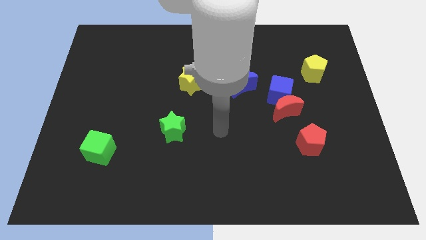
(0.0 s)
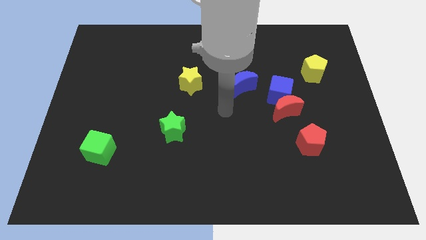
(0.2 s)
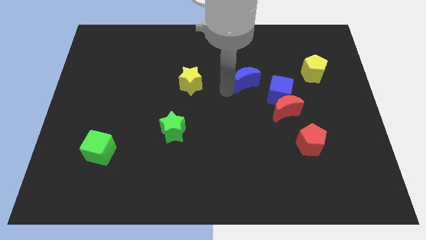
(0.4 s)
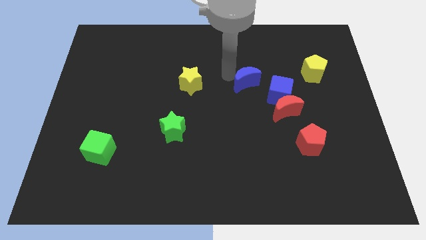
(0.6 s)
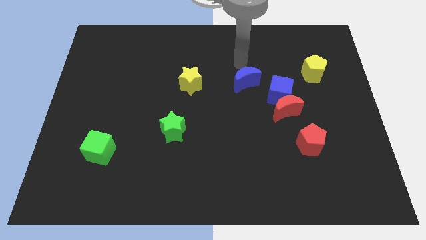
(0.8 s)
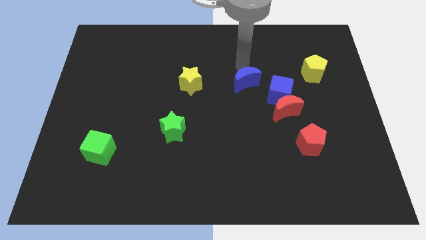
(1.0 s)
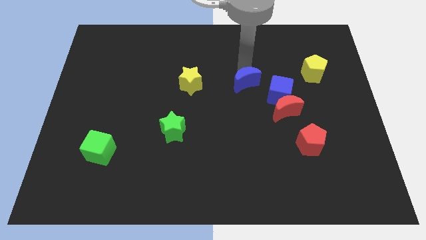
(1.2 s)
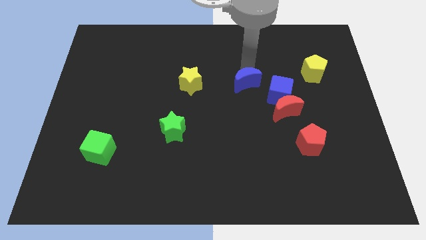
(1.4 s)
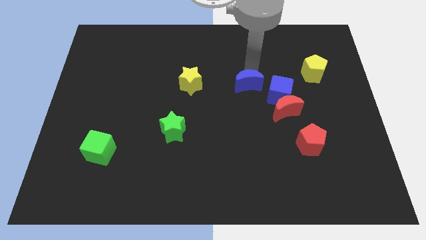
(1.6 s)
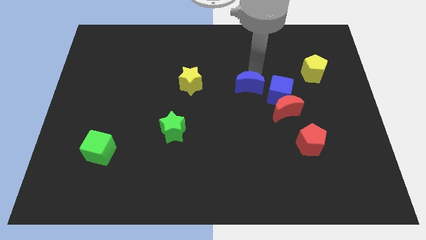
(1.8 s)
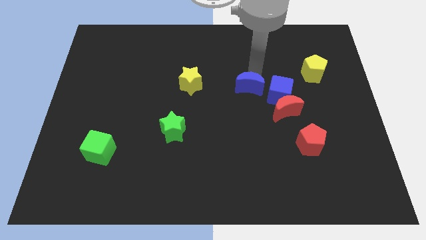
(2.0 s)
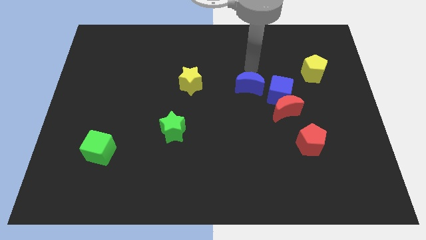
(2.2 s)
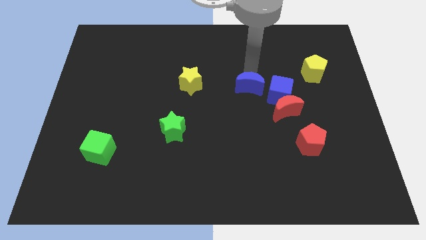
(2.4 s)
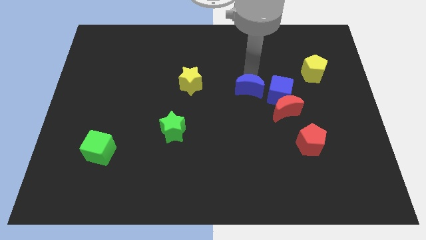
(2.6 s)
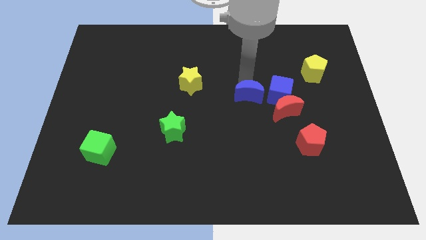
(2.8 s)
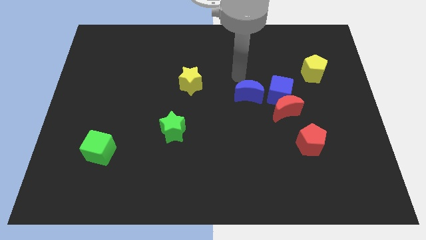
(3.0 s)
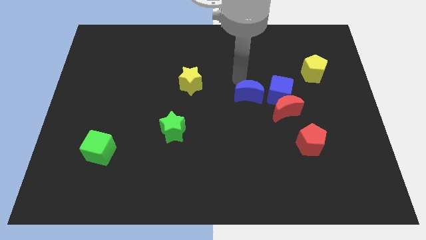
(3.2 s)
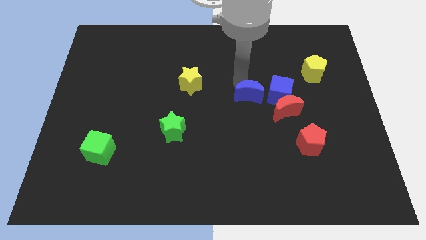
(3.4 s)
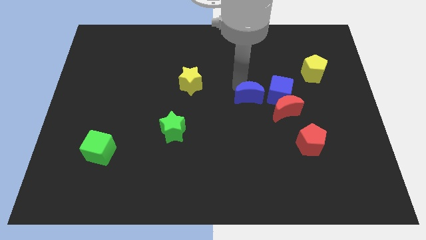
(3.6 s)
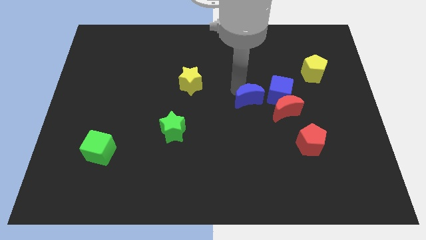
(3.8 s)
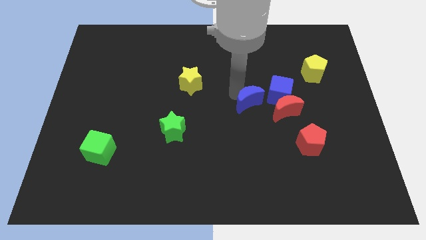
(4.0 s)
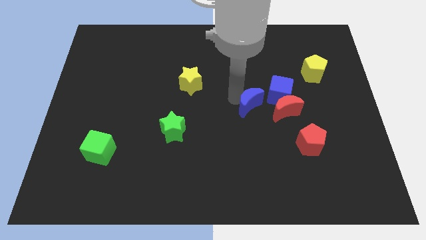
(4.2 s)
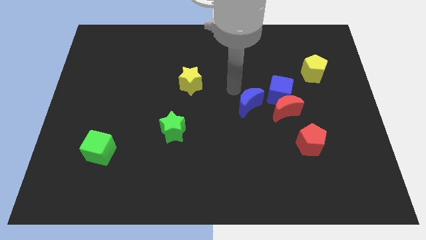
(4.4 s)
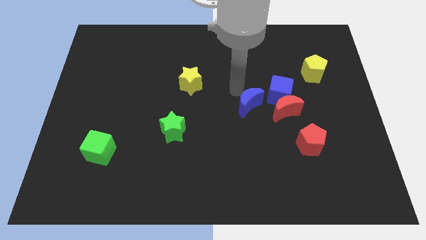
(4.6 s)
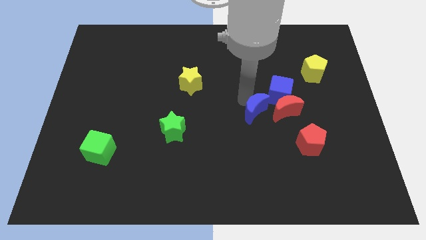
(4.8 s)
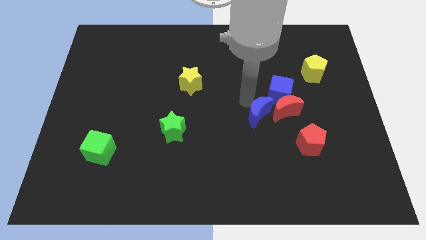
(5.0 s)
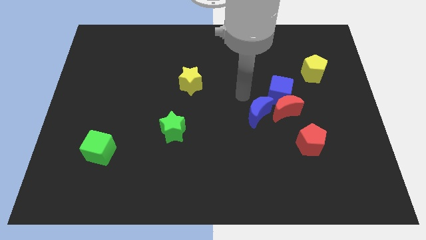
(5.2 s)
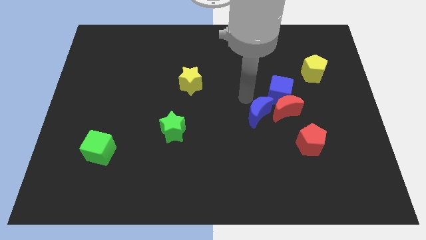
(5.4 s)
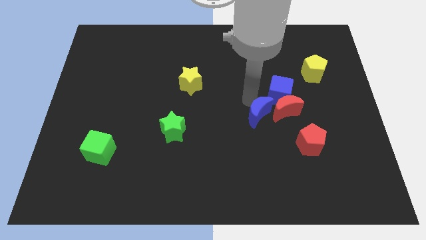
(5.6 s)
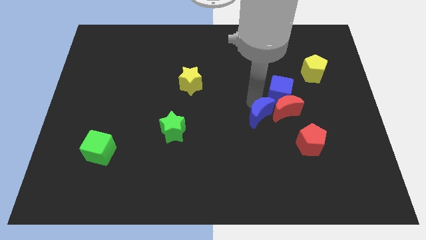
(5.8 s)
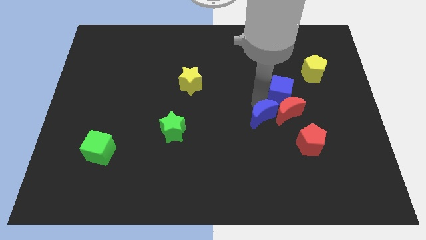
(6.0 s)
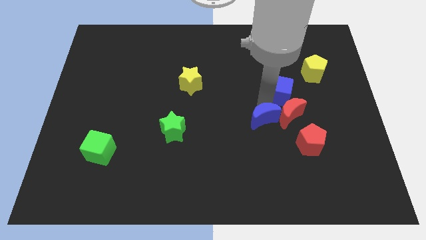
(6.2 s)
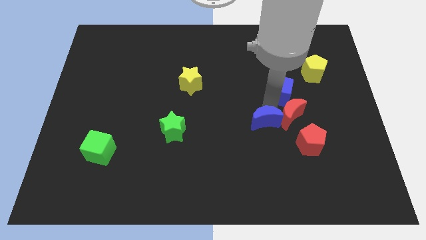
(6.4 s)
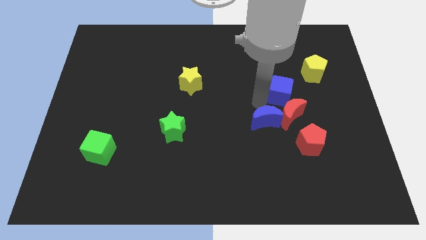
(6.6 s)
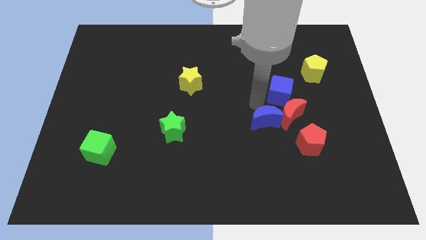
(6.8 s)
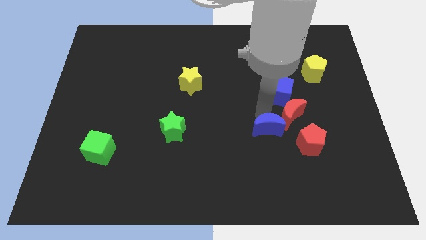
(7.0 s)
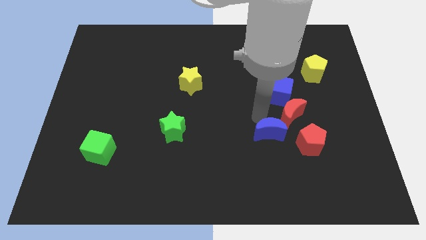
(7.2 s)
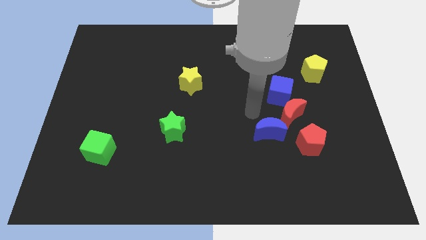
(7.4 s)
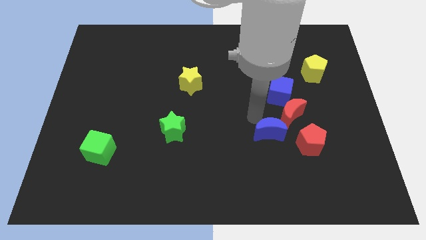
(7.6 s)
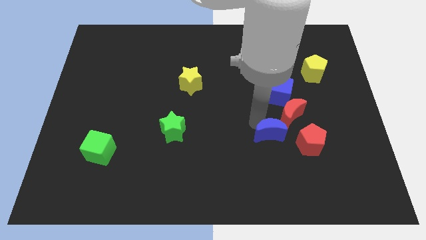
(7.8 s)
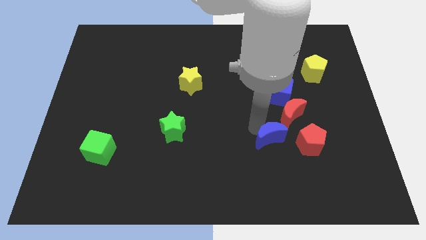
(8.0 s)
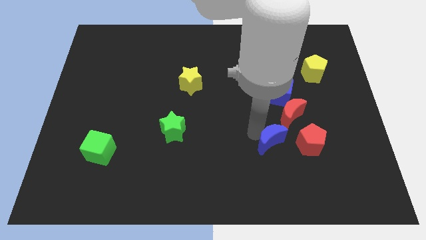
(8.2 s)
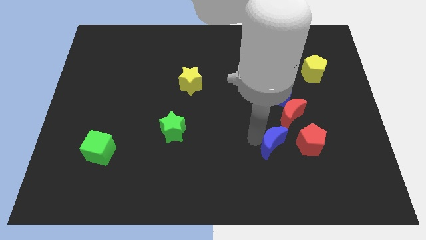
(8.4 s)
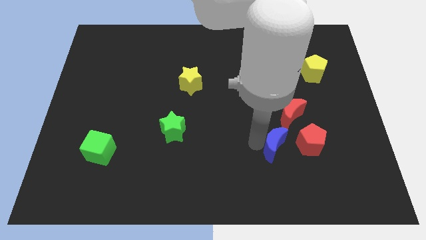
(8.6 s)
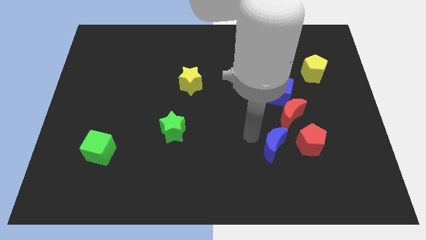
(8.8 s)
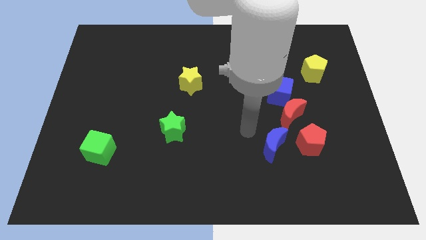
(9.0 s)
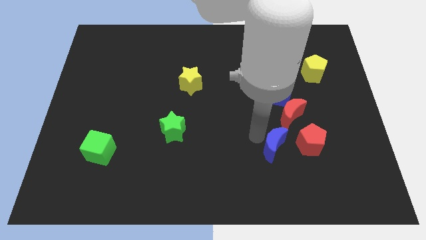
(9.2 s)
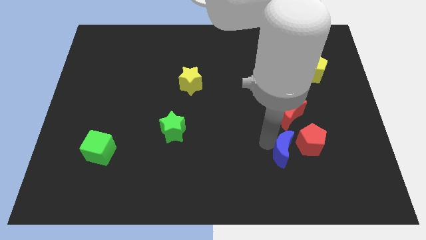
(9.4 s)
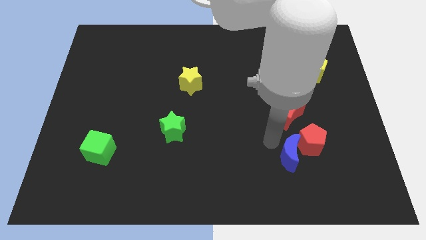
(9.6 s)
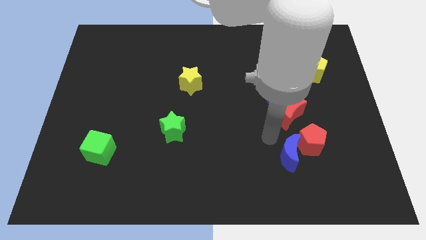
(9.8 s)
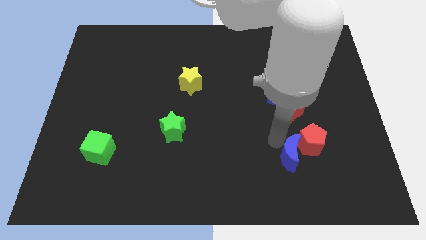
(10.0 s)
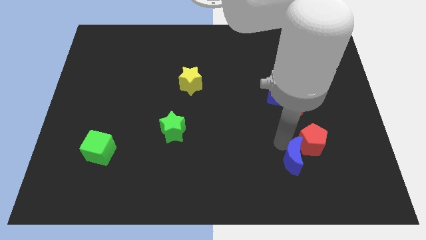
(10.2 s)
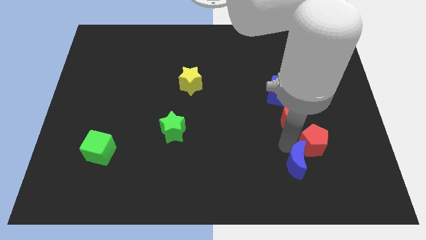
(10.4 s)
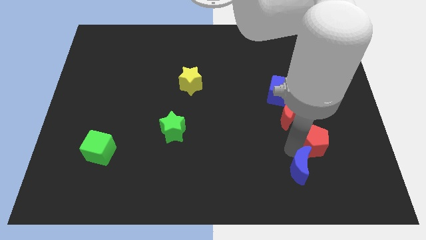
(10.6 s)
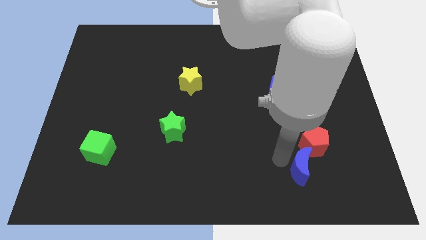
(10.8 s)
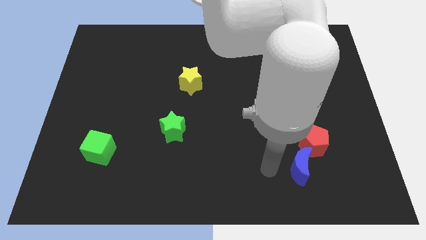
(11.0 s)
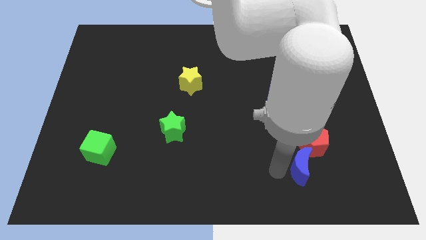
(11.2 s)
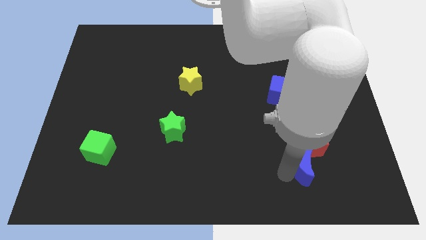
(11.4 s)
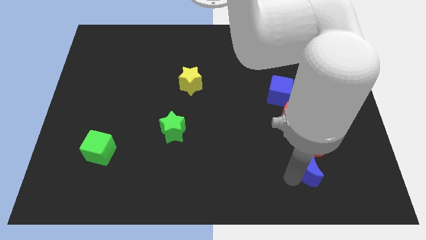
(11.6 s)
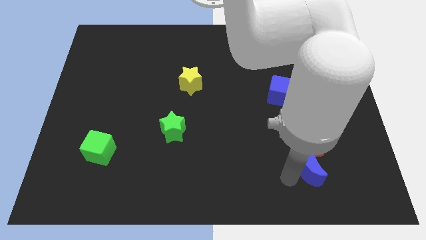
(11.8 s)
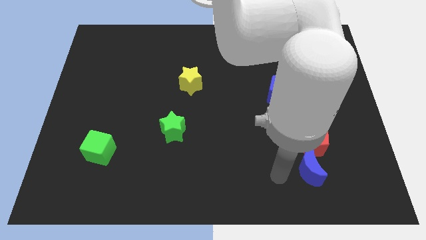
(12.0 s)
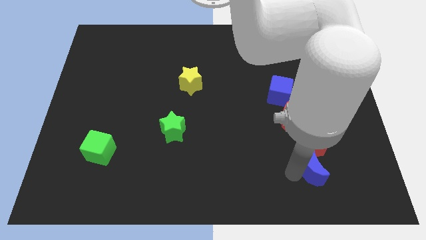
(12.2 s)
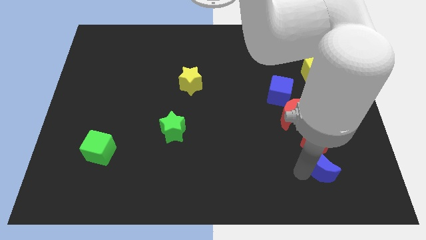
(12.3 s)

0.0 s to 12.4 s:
move the blue moon to the bottom right side of the red pentagon

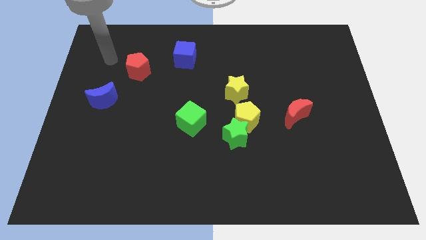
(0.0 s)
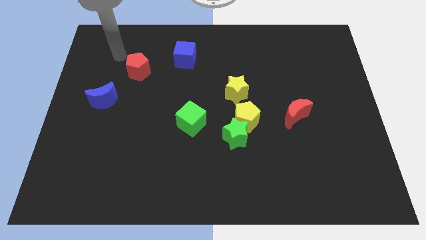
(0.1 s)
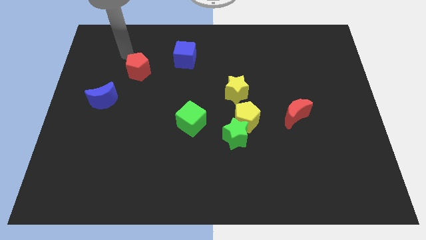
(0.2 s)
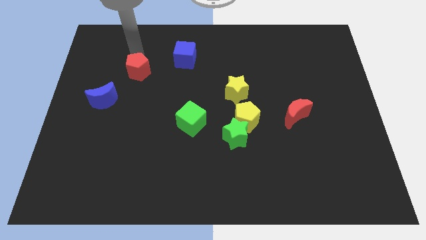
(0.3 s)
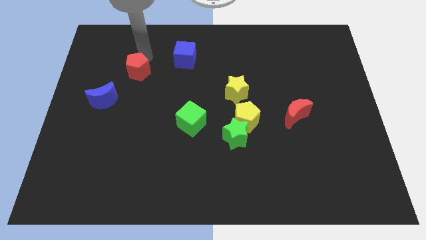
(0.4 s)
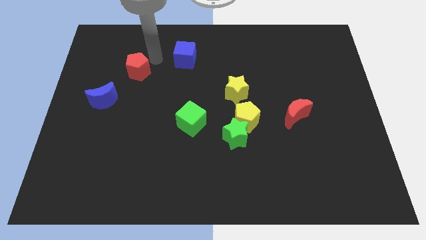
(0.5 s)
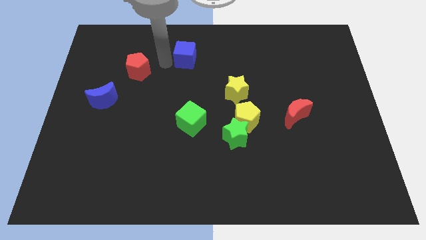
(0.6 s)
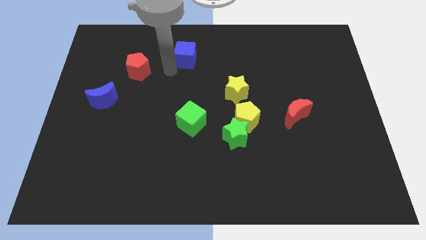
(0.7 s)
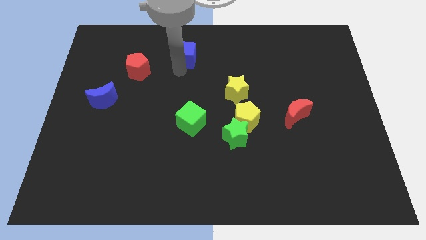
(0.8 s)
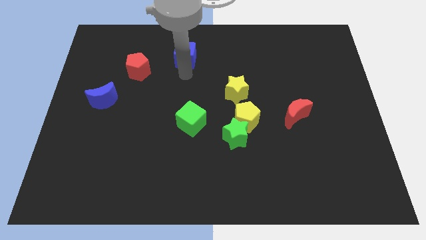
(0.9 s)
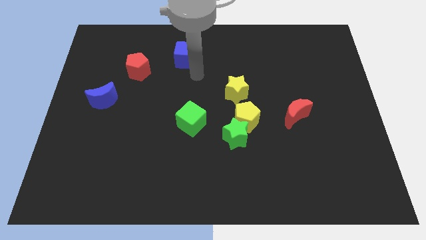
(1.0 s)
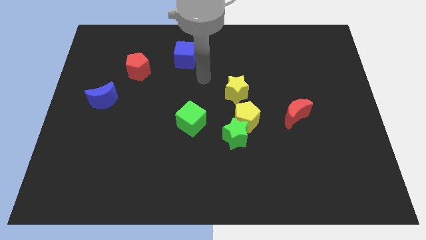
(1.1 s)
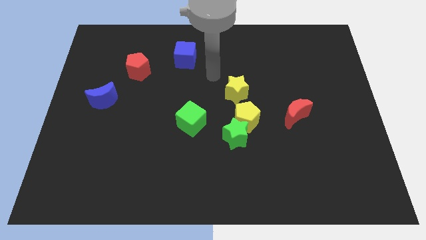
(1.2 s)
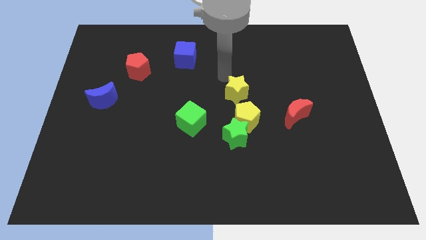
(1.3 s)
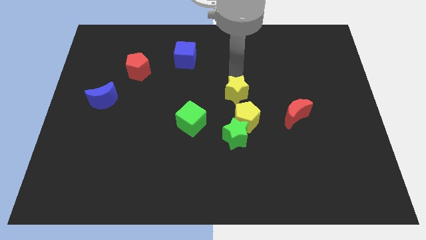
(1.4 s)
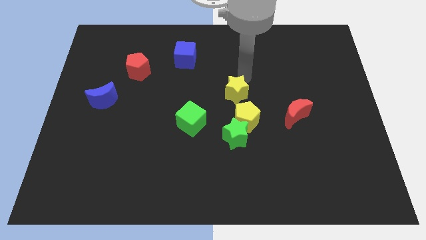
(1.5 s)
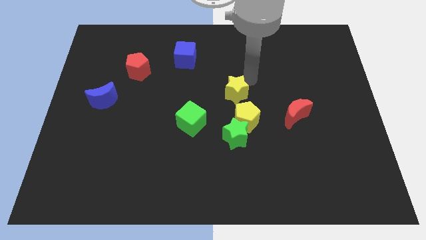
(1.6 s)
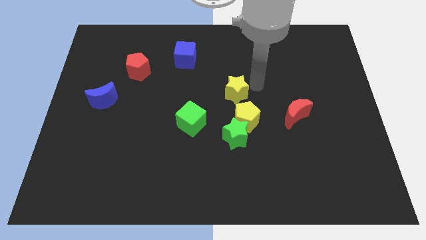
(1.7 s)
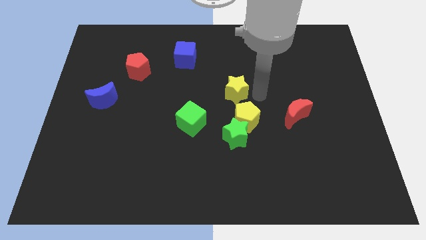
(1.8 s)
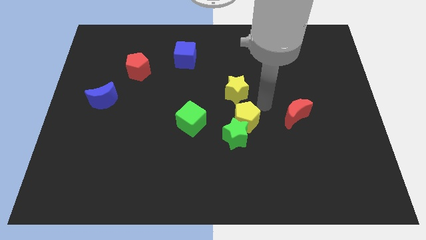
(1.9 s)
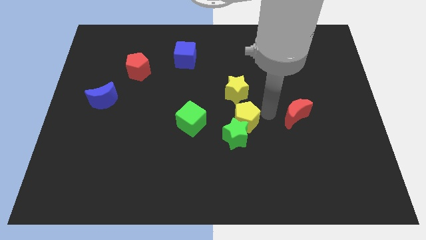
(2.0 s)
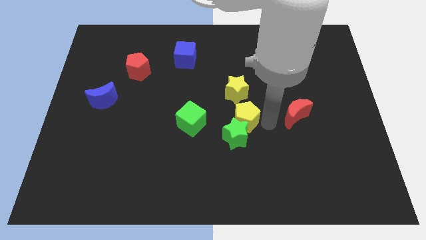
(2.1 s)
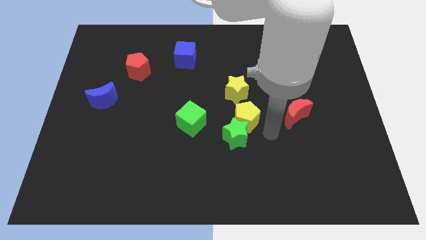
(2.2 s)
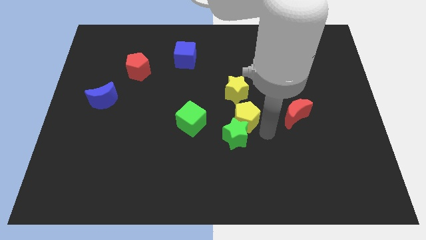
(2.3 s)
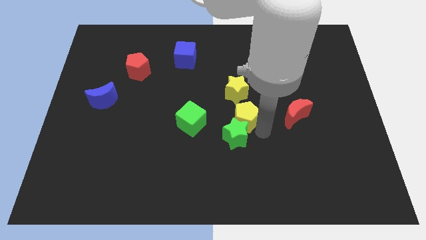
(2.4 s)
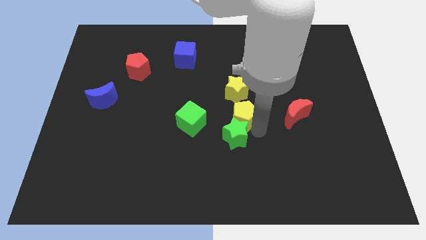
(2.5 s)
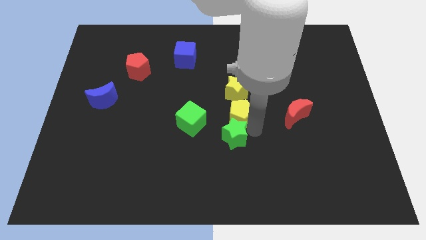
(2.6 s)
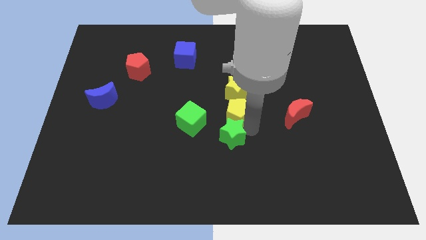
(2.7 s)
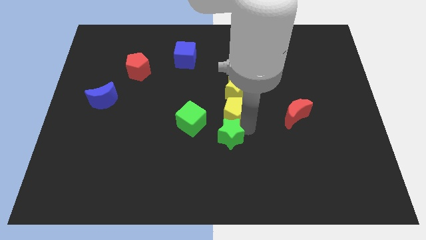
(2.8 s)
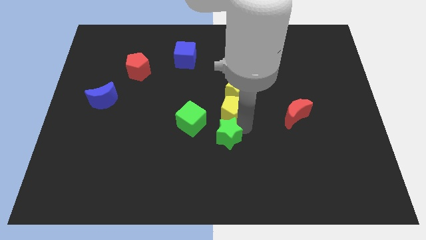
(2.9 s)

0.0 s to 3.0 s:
move the yellow pentagon diagonally up and to the right of the green cube
